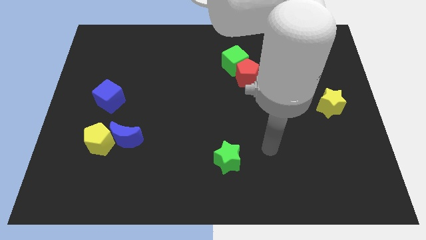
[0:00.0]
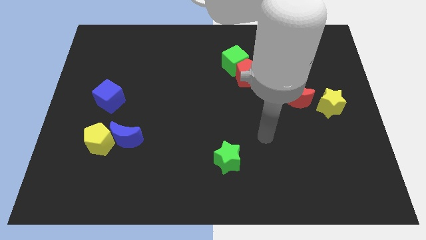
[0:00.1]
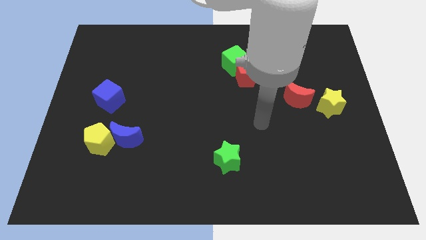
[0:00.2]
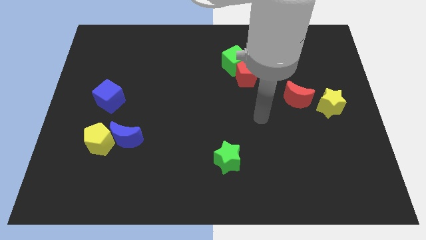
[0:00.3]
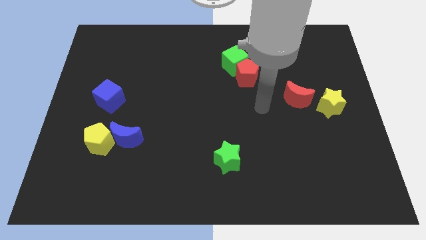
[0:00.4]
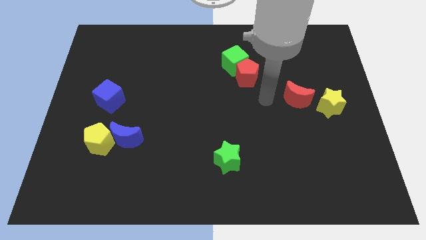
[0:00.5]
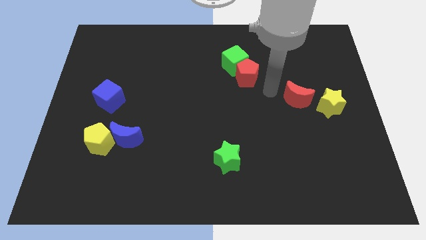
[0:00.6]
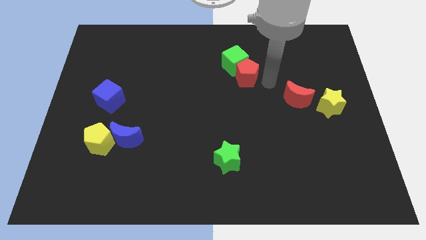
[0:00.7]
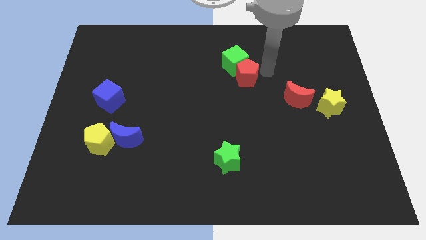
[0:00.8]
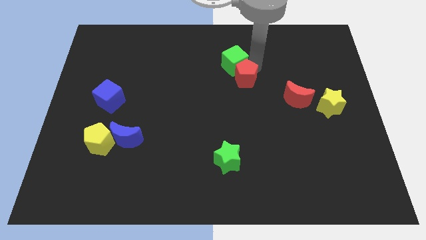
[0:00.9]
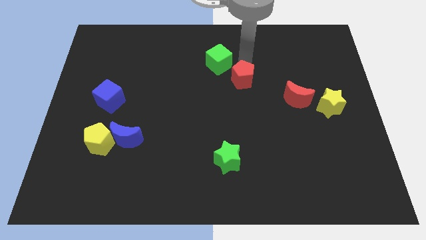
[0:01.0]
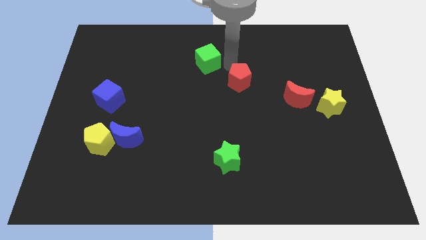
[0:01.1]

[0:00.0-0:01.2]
pull the red pentagon apart from the green cube

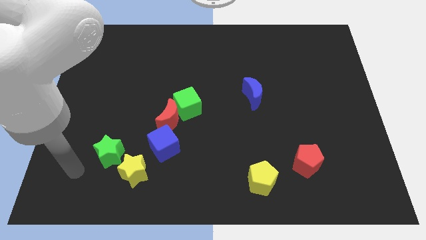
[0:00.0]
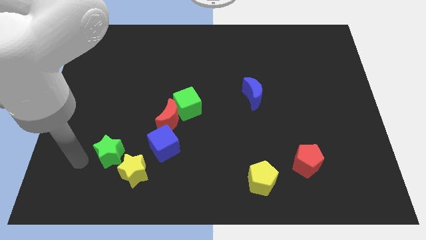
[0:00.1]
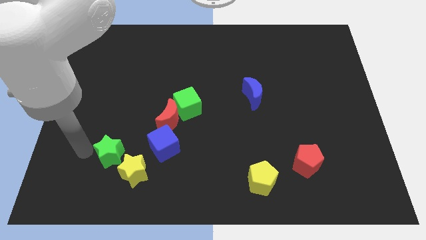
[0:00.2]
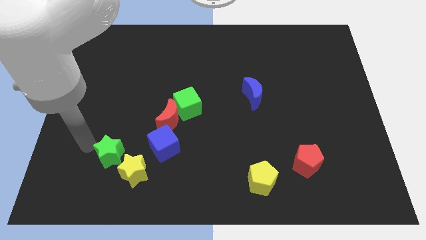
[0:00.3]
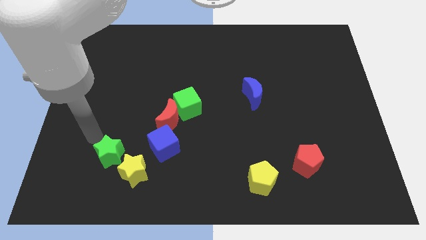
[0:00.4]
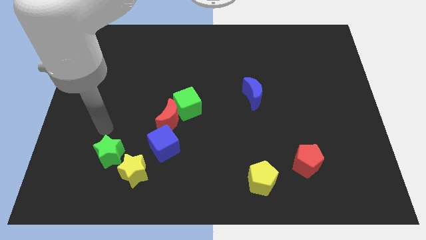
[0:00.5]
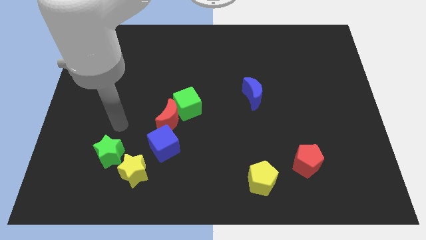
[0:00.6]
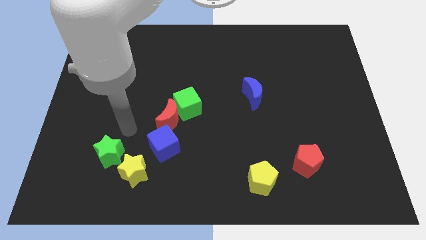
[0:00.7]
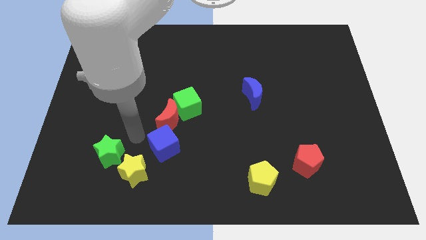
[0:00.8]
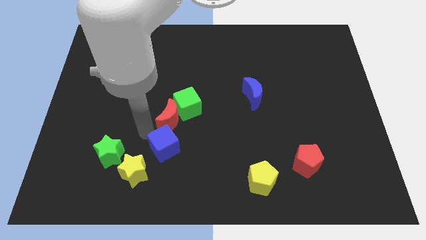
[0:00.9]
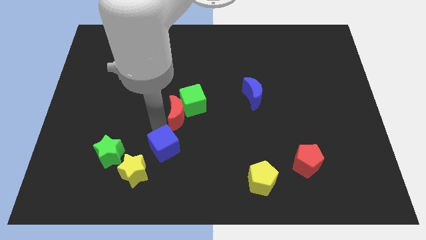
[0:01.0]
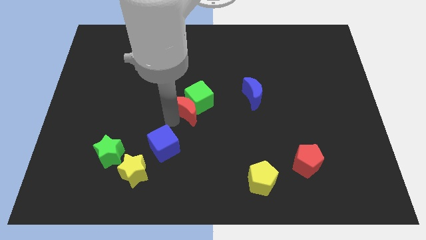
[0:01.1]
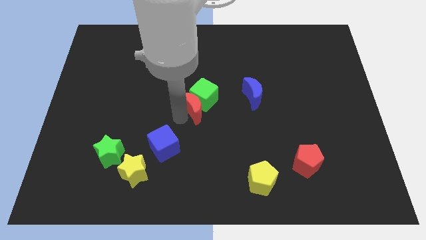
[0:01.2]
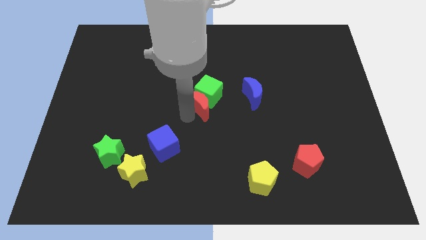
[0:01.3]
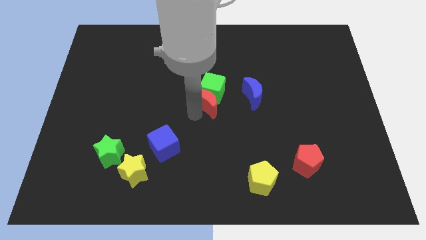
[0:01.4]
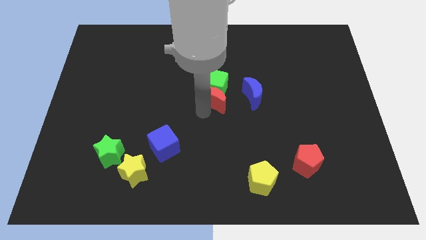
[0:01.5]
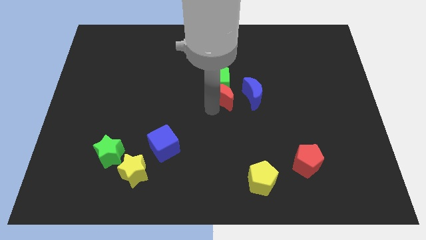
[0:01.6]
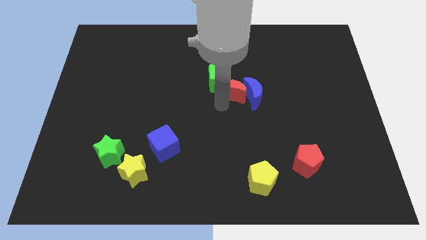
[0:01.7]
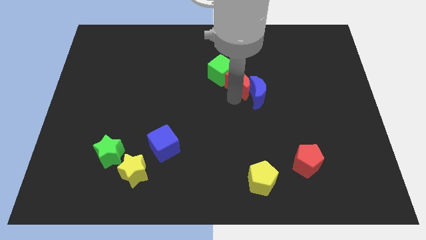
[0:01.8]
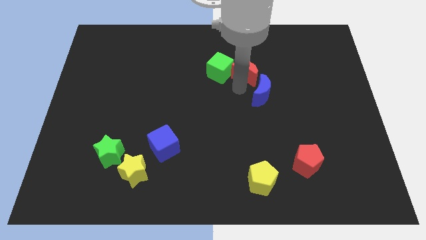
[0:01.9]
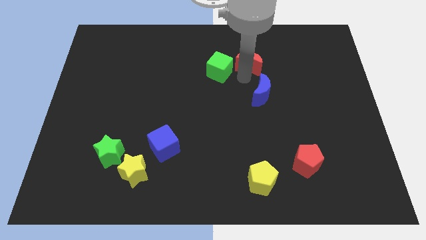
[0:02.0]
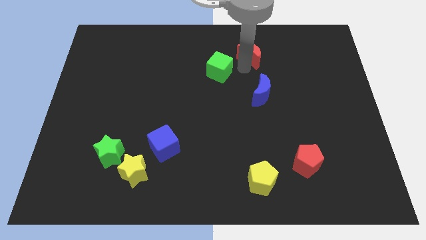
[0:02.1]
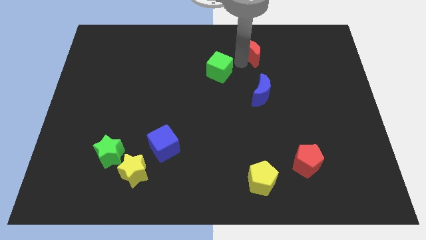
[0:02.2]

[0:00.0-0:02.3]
separate the green cube from the red moon

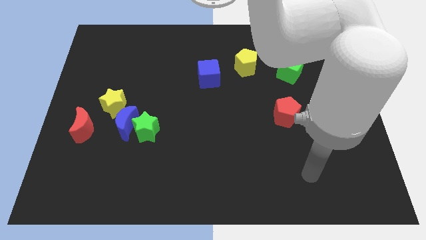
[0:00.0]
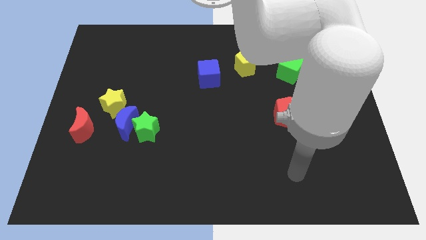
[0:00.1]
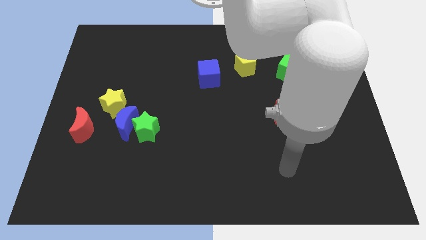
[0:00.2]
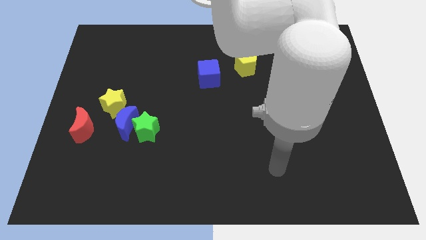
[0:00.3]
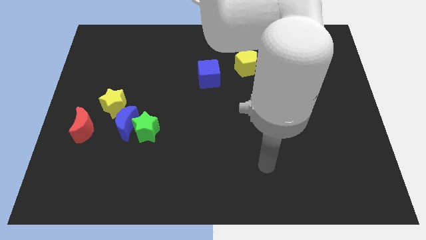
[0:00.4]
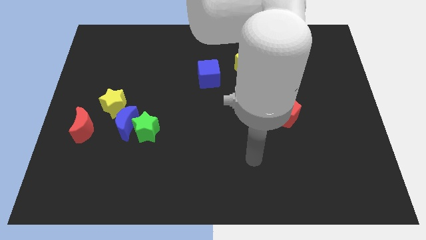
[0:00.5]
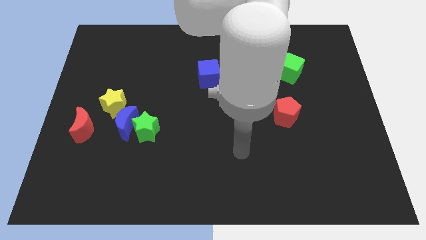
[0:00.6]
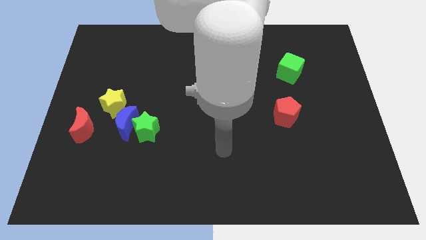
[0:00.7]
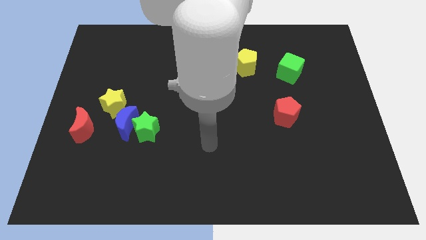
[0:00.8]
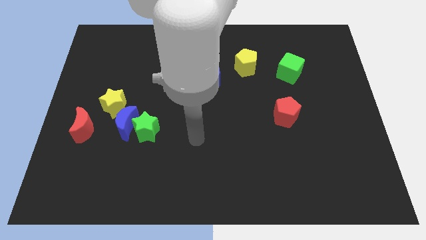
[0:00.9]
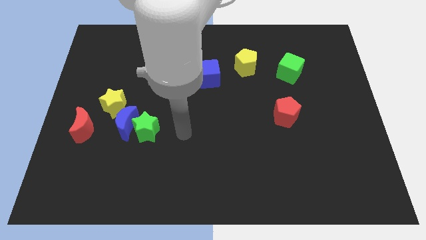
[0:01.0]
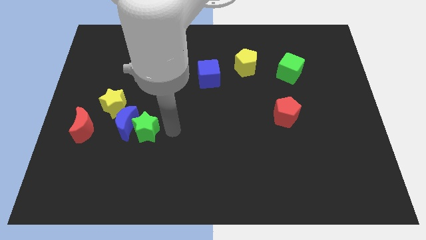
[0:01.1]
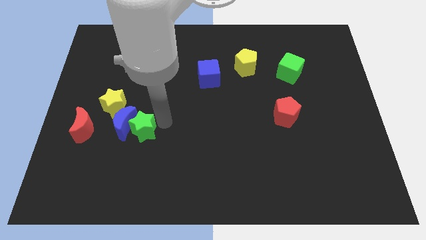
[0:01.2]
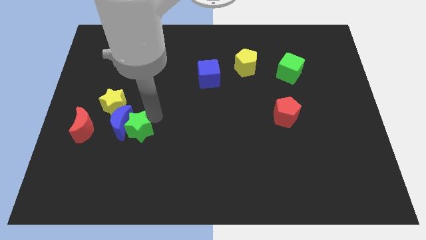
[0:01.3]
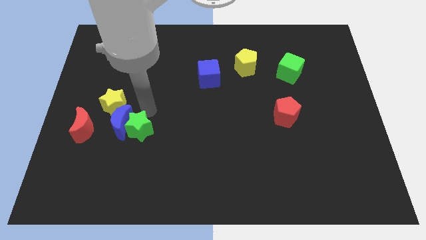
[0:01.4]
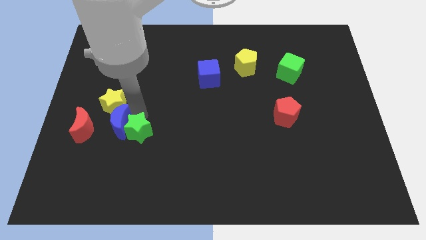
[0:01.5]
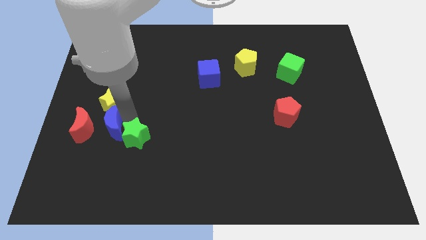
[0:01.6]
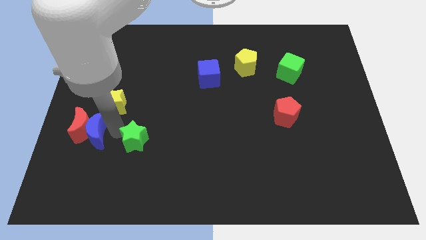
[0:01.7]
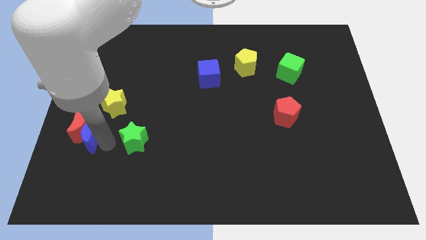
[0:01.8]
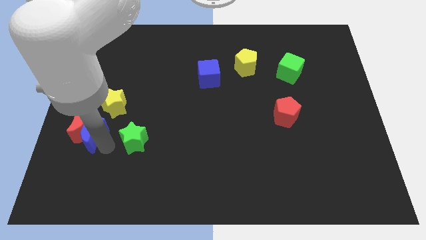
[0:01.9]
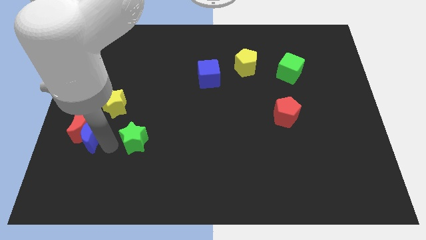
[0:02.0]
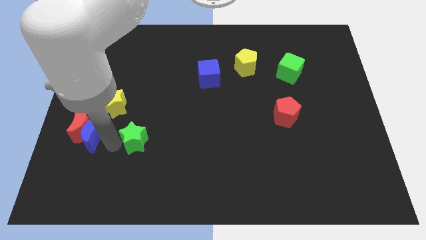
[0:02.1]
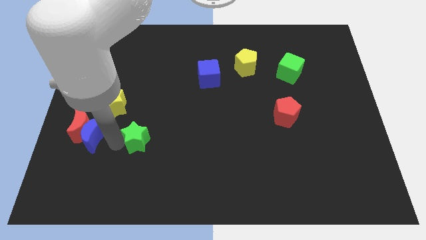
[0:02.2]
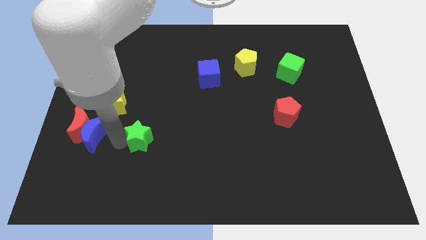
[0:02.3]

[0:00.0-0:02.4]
separate the green star from the blue moon

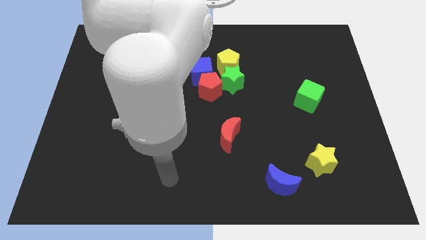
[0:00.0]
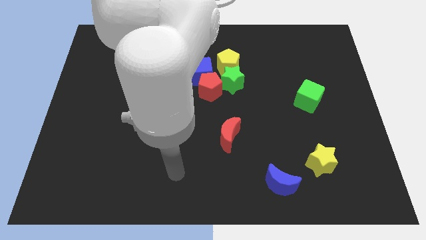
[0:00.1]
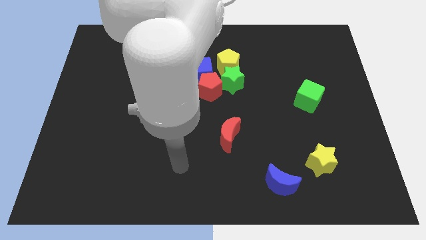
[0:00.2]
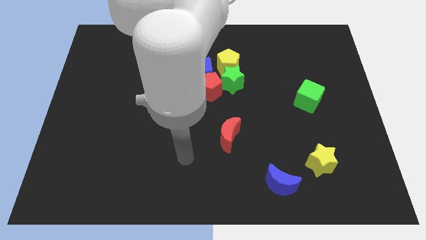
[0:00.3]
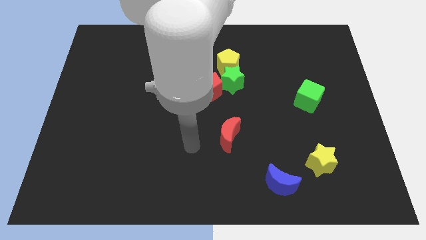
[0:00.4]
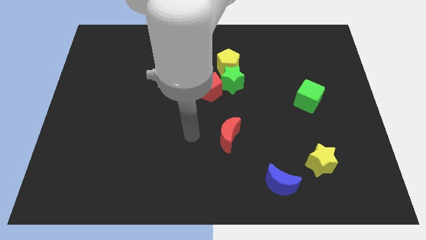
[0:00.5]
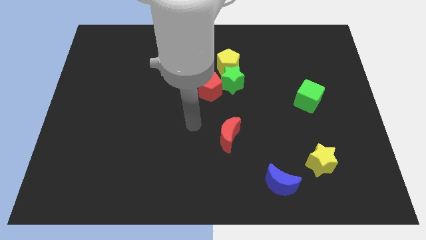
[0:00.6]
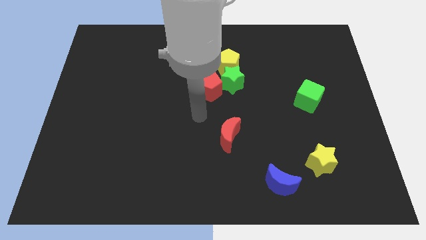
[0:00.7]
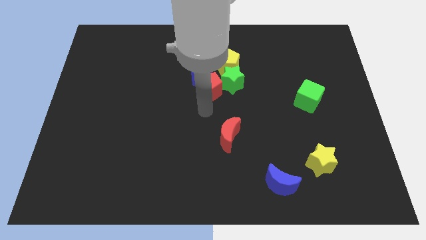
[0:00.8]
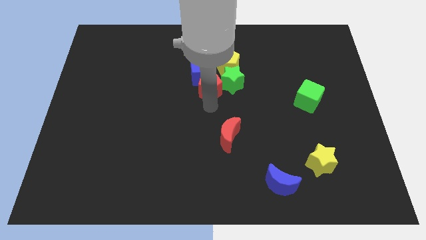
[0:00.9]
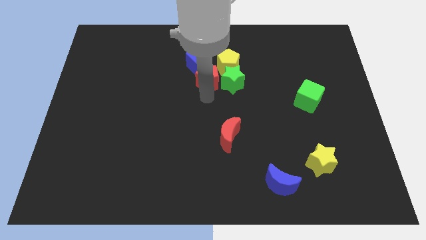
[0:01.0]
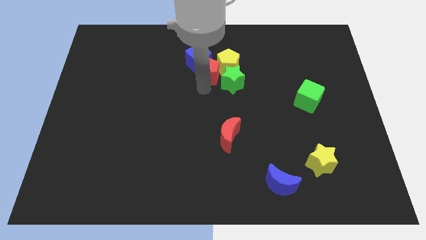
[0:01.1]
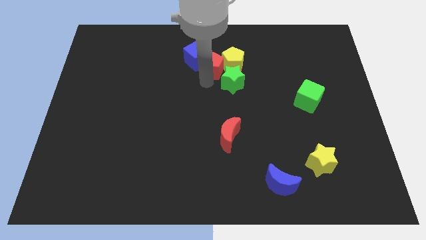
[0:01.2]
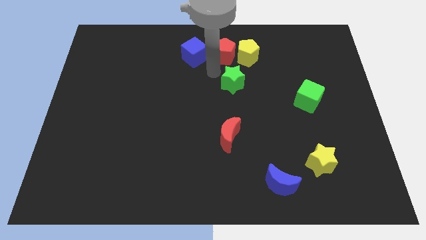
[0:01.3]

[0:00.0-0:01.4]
pull the green star apart from the group of blocks

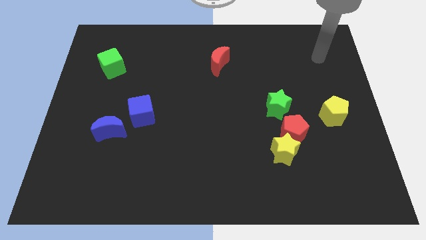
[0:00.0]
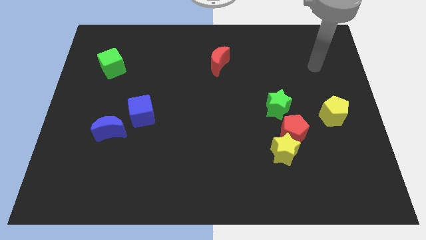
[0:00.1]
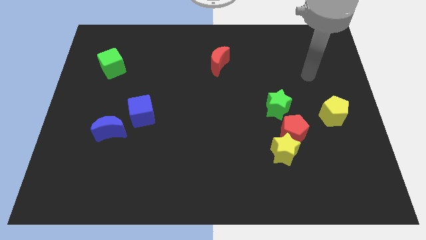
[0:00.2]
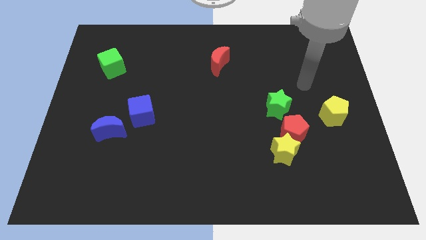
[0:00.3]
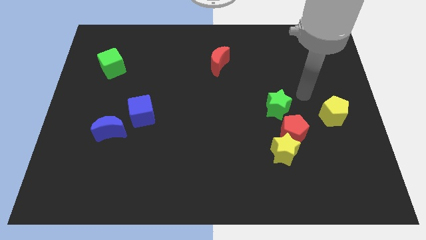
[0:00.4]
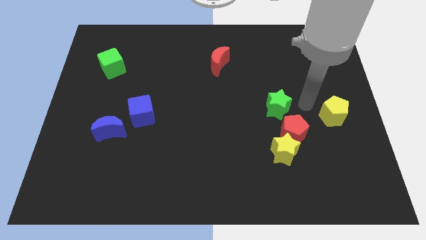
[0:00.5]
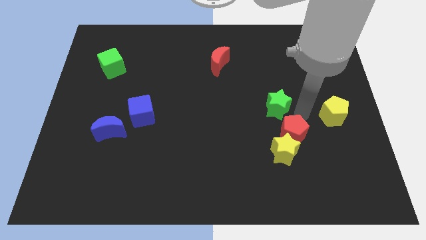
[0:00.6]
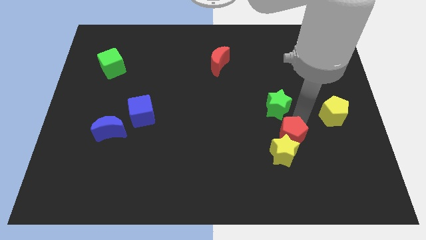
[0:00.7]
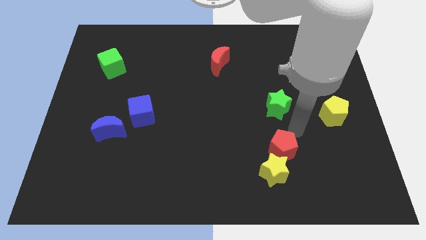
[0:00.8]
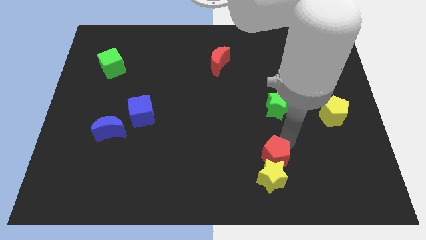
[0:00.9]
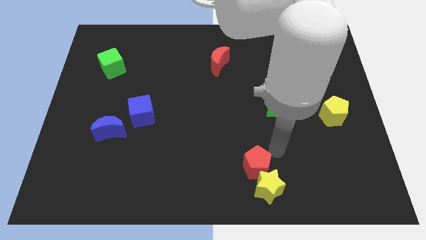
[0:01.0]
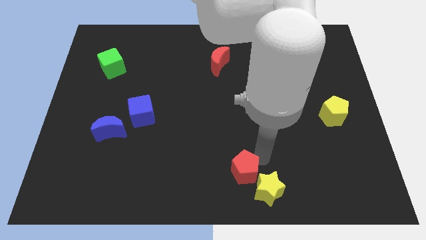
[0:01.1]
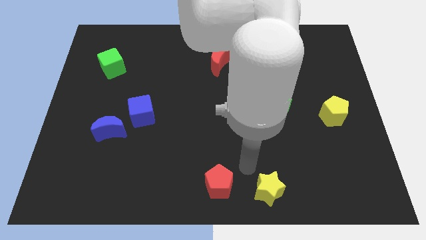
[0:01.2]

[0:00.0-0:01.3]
pull the yellow star apart from the red pentagon

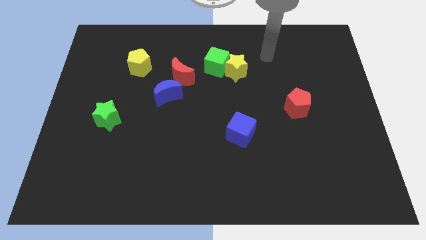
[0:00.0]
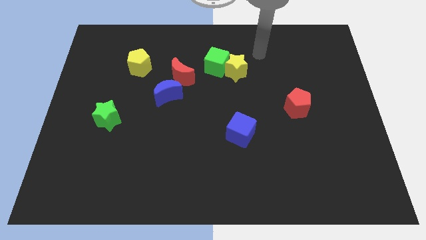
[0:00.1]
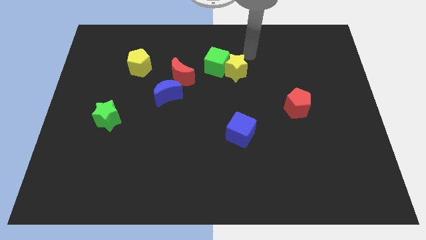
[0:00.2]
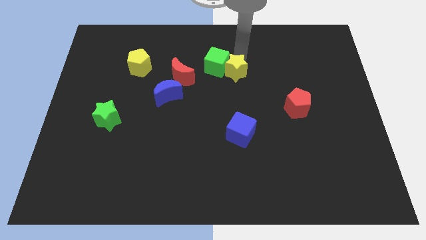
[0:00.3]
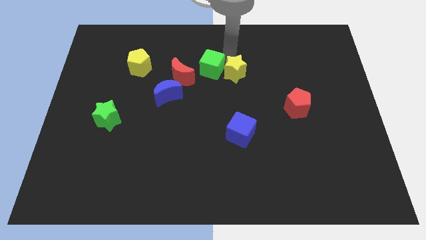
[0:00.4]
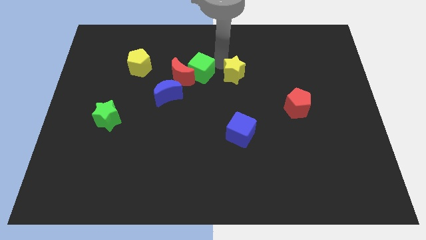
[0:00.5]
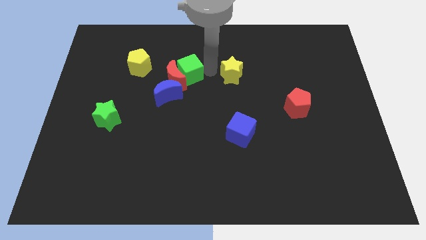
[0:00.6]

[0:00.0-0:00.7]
pull the yellow star apart from the green cube
